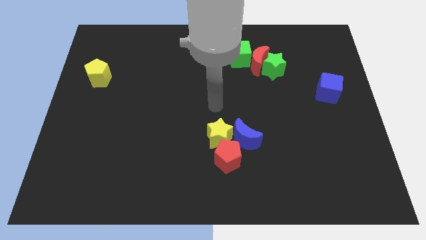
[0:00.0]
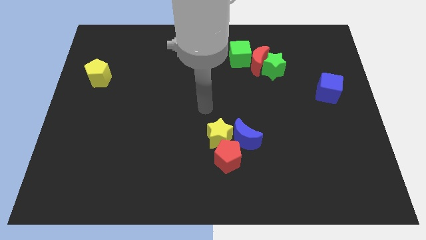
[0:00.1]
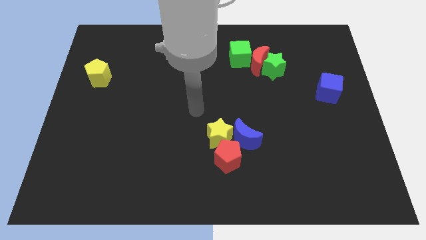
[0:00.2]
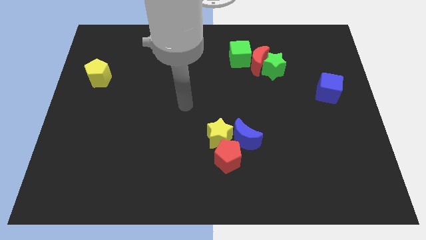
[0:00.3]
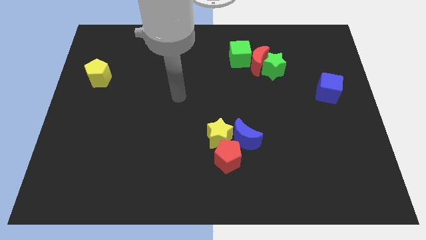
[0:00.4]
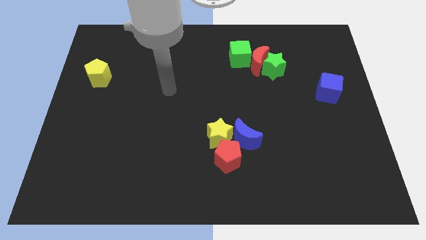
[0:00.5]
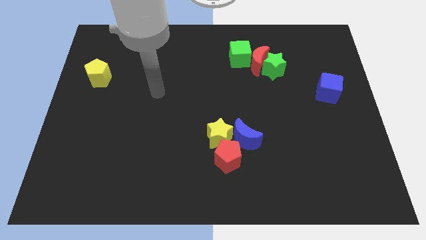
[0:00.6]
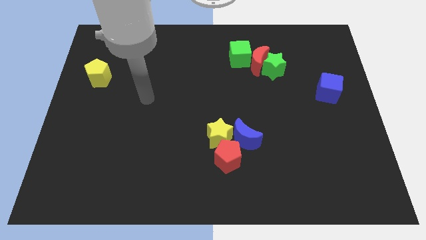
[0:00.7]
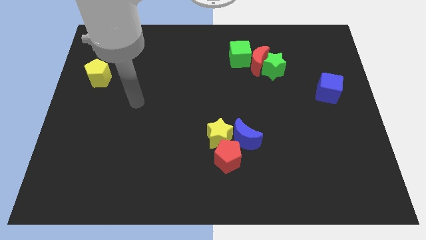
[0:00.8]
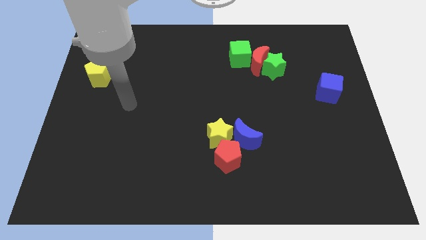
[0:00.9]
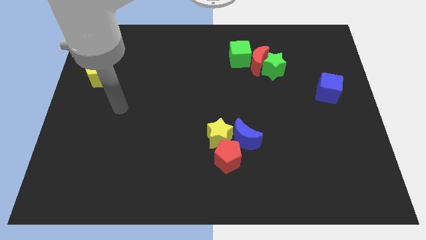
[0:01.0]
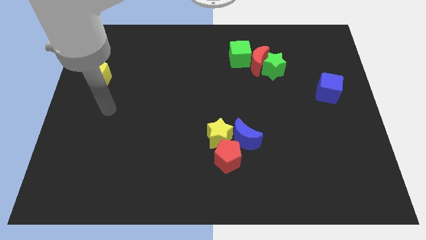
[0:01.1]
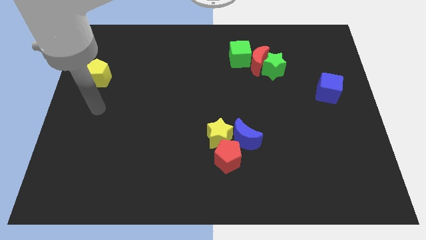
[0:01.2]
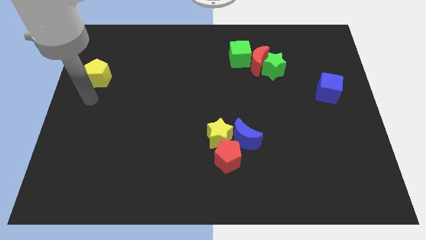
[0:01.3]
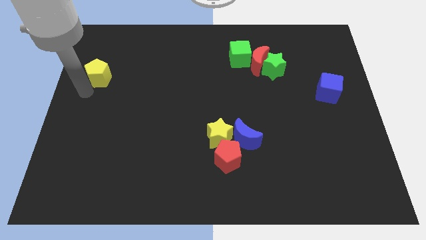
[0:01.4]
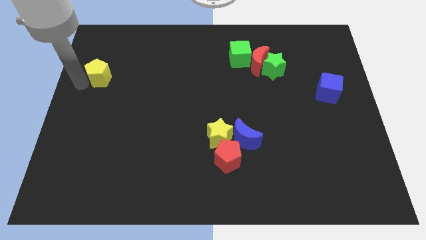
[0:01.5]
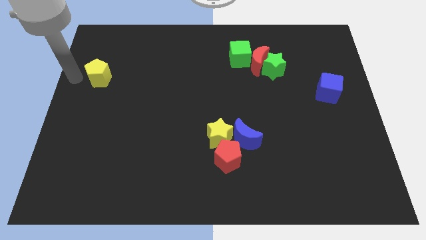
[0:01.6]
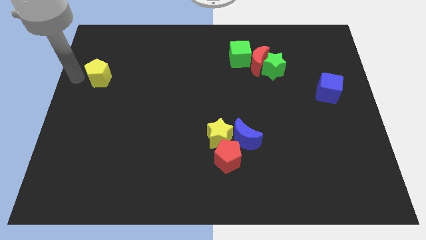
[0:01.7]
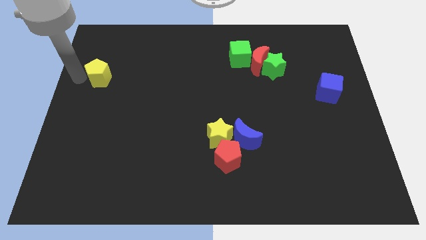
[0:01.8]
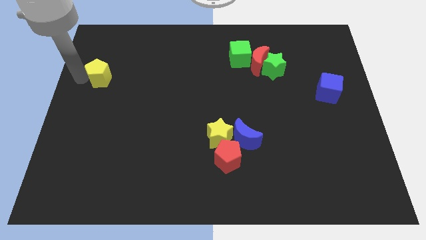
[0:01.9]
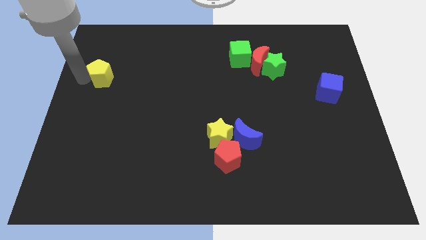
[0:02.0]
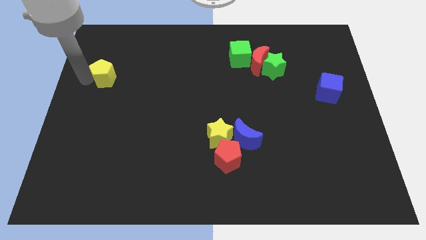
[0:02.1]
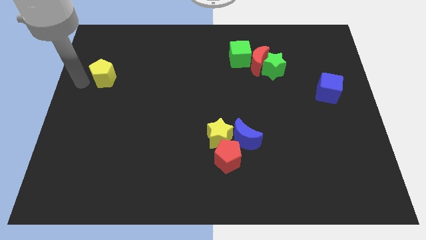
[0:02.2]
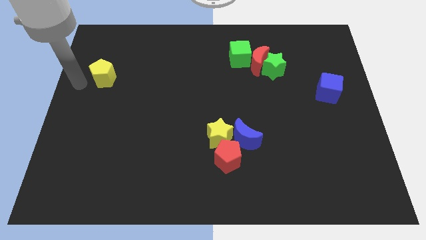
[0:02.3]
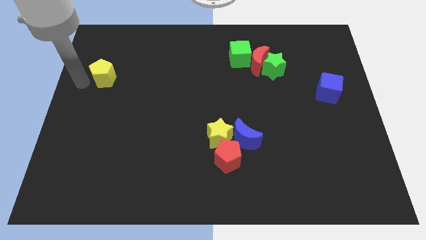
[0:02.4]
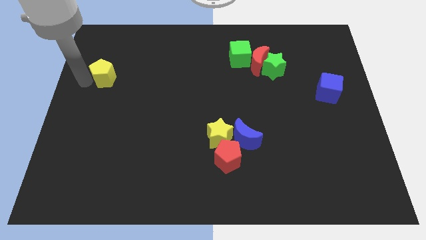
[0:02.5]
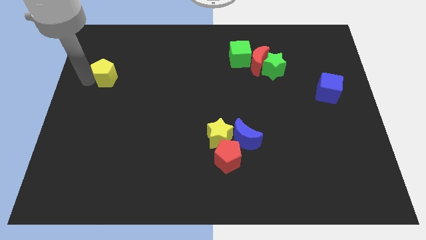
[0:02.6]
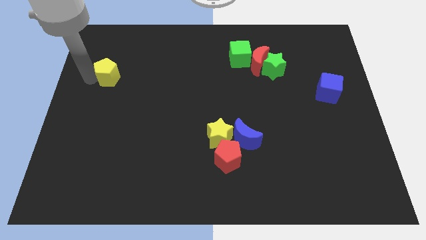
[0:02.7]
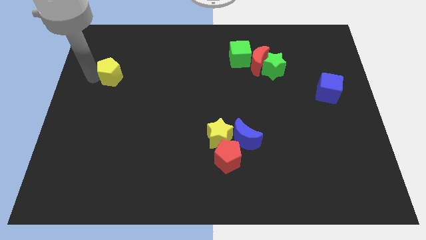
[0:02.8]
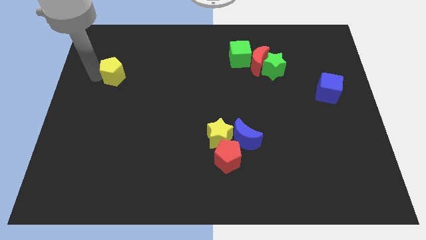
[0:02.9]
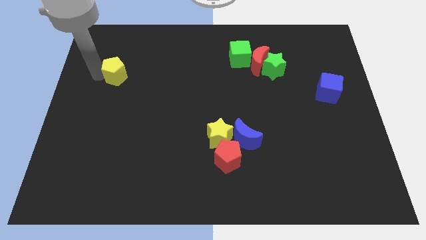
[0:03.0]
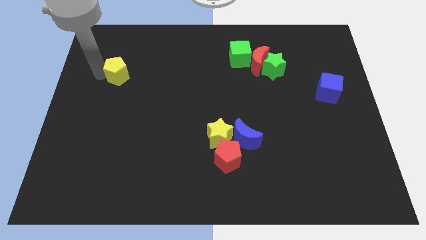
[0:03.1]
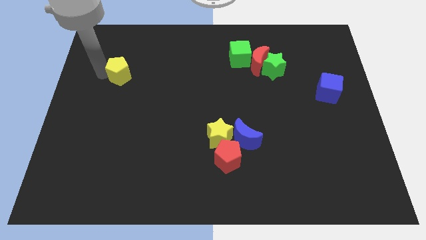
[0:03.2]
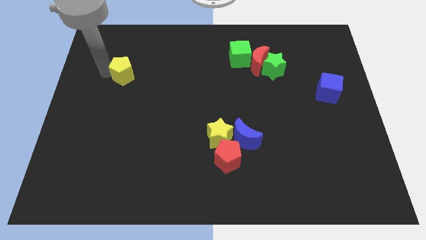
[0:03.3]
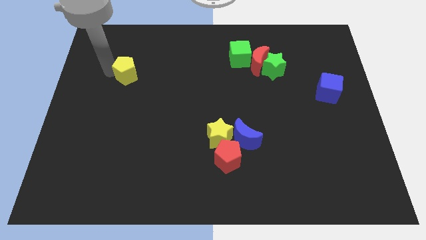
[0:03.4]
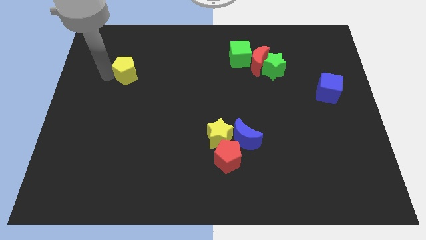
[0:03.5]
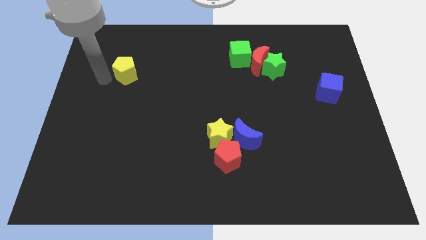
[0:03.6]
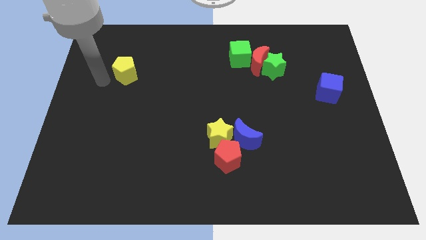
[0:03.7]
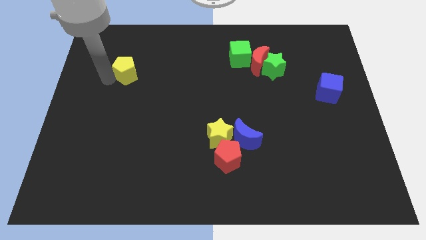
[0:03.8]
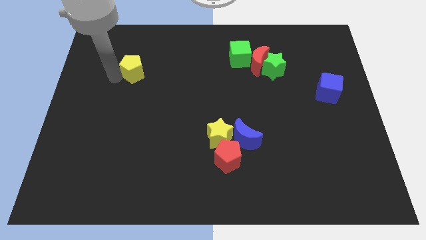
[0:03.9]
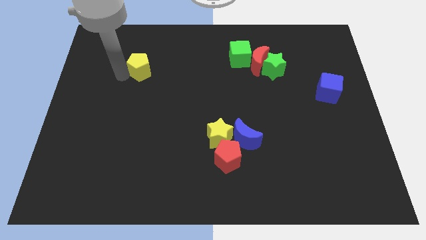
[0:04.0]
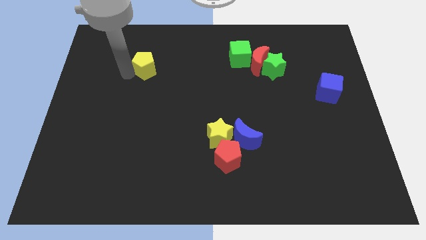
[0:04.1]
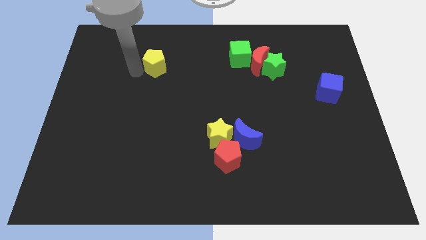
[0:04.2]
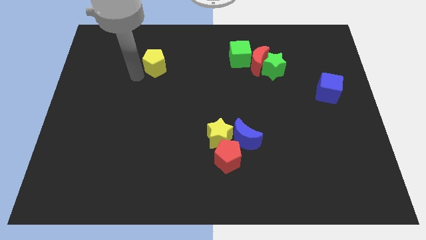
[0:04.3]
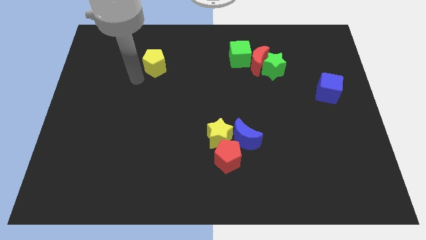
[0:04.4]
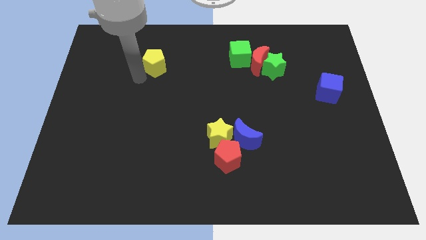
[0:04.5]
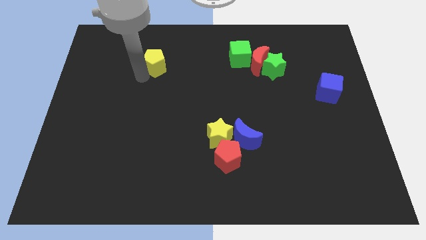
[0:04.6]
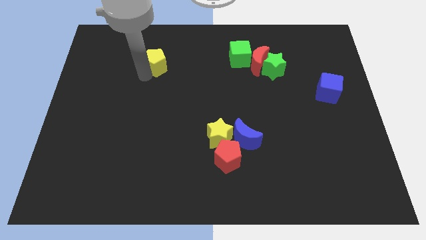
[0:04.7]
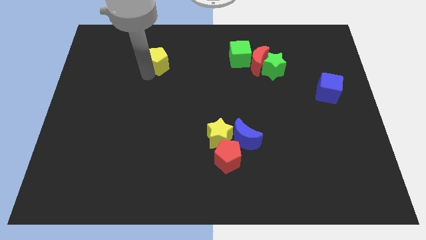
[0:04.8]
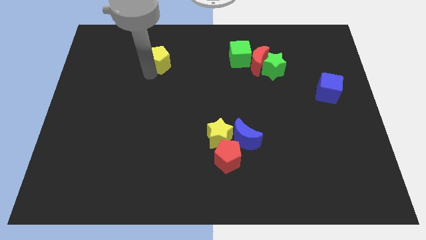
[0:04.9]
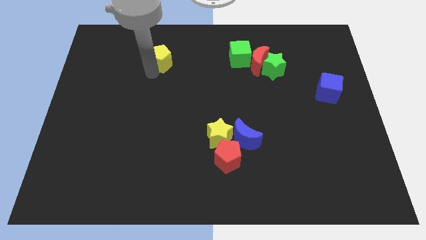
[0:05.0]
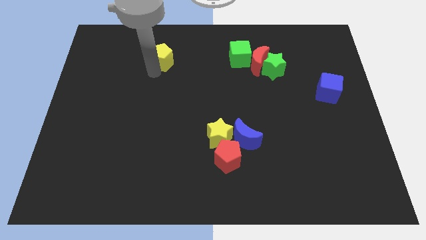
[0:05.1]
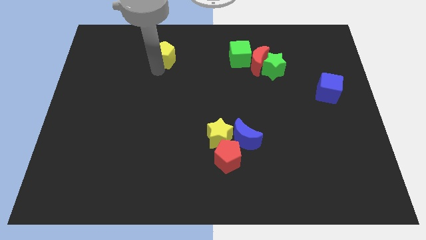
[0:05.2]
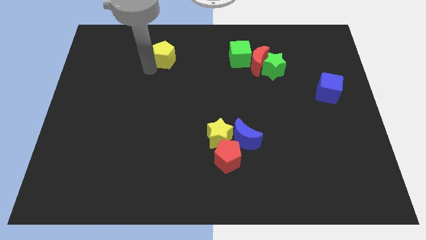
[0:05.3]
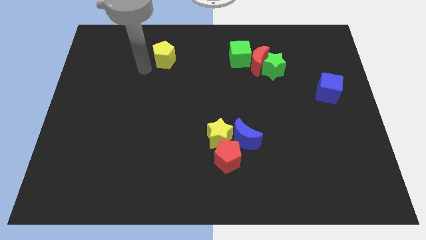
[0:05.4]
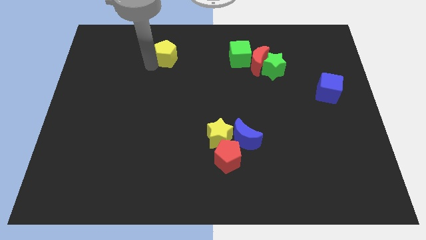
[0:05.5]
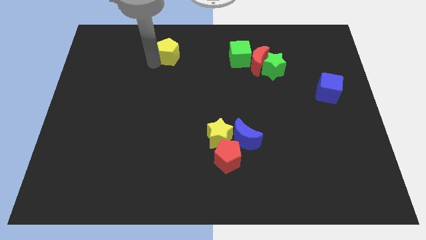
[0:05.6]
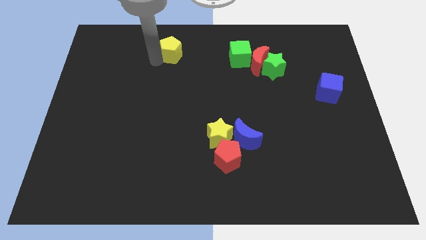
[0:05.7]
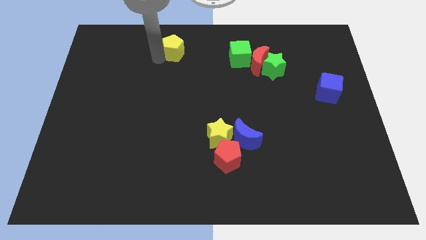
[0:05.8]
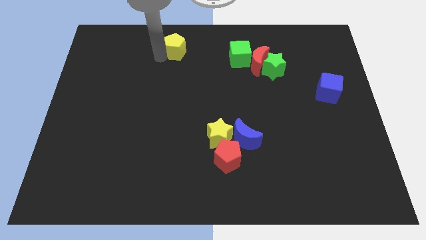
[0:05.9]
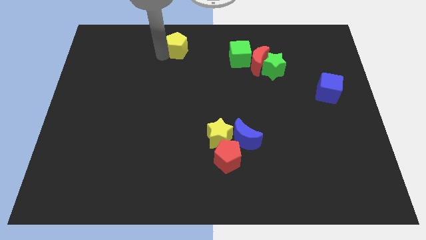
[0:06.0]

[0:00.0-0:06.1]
slide the yellow pentagon to the towards your base

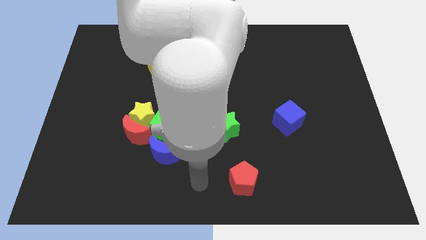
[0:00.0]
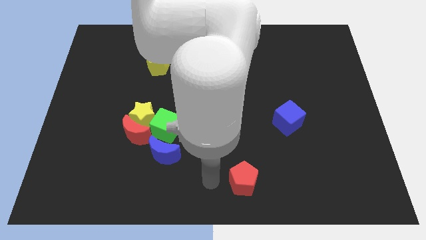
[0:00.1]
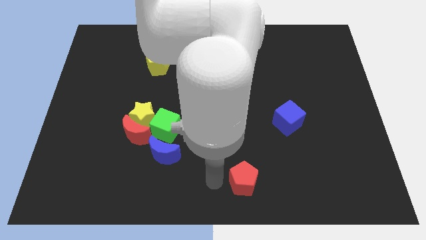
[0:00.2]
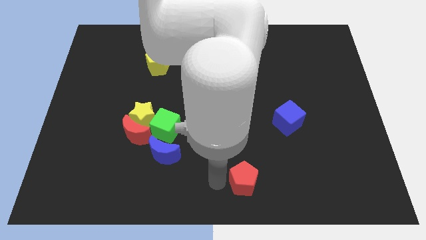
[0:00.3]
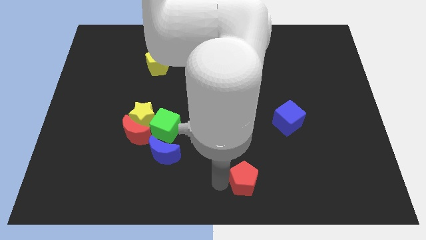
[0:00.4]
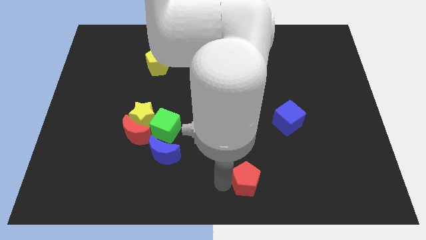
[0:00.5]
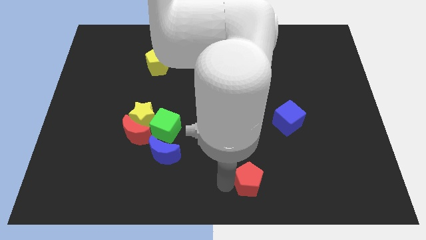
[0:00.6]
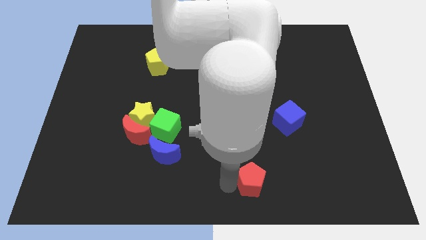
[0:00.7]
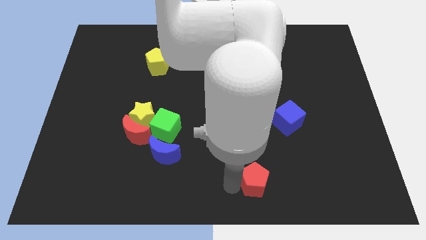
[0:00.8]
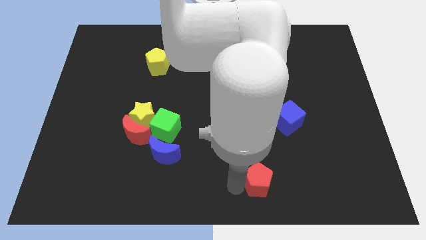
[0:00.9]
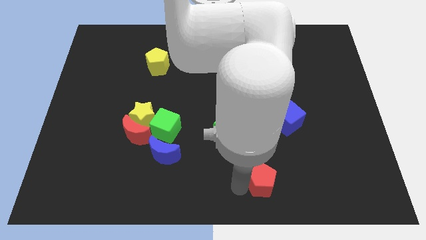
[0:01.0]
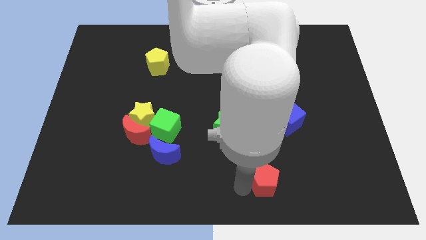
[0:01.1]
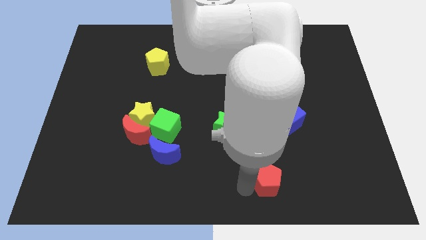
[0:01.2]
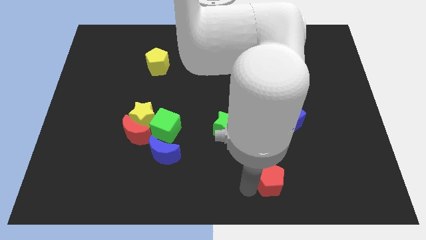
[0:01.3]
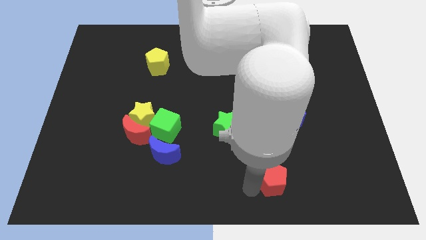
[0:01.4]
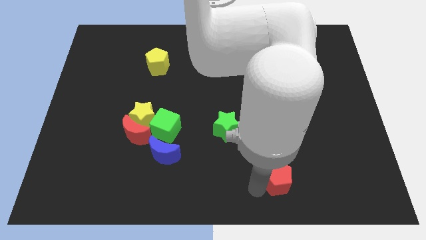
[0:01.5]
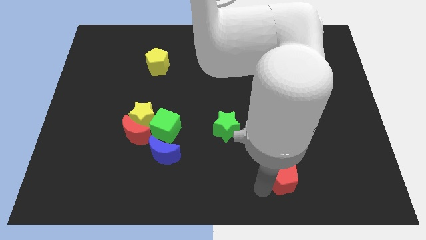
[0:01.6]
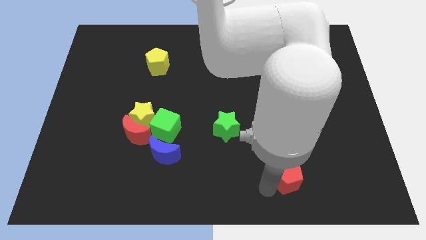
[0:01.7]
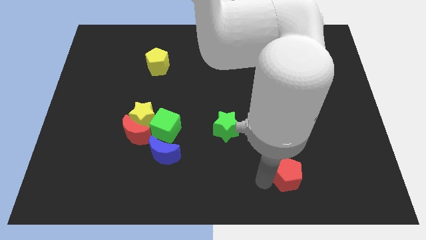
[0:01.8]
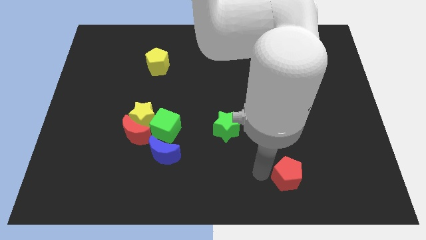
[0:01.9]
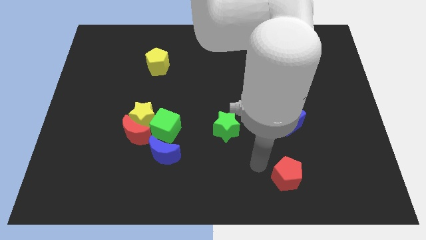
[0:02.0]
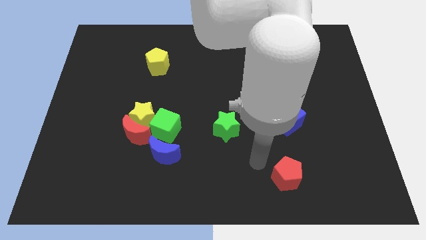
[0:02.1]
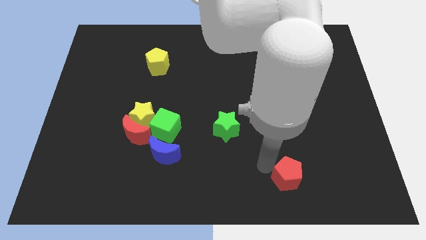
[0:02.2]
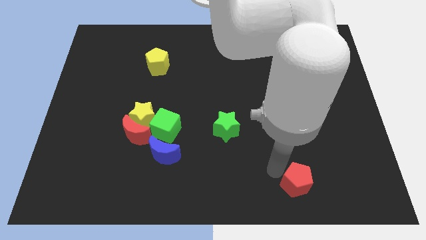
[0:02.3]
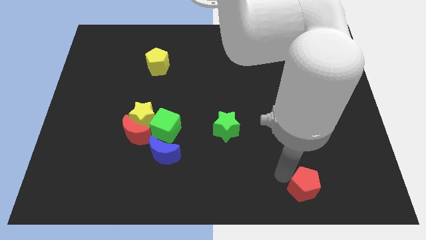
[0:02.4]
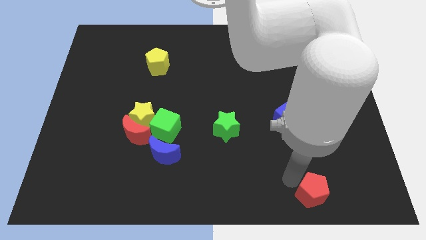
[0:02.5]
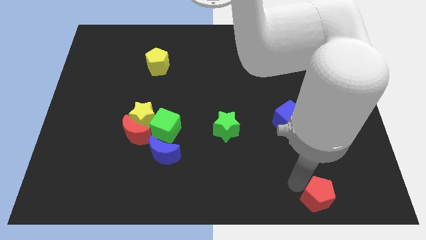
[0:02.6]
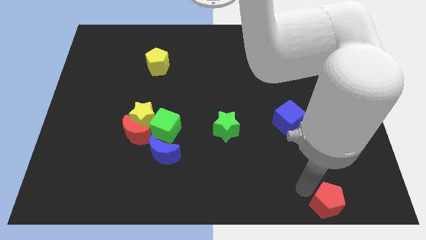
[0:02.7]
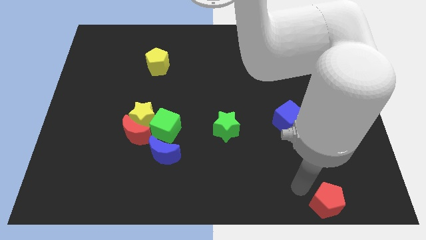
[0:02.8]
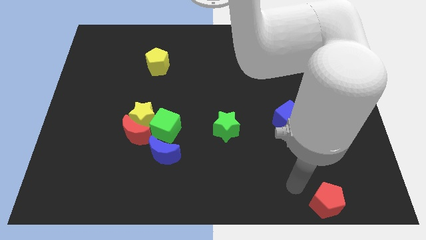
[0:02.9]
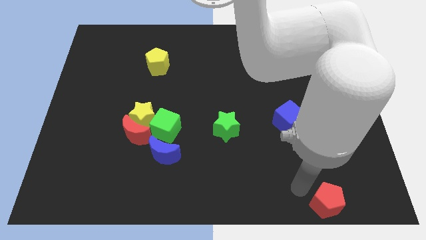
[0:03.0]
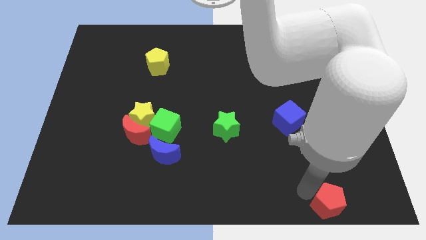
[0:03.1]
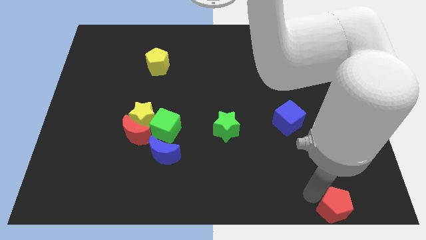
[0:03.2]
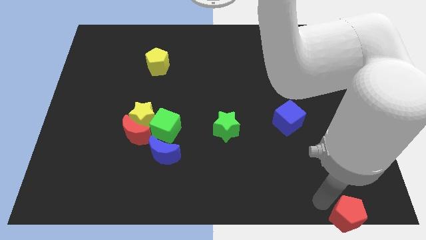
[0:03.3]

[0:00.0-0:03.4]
put the red pentagon to the bottom right of the board
